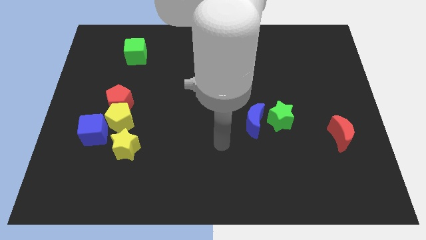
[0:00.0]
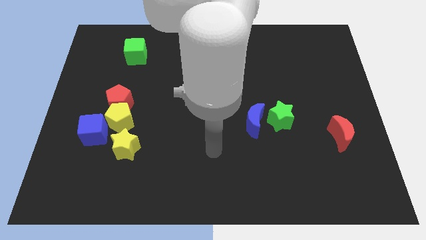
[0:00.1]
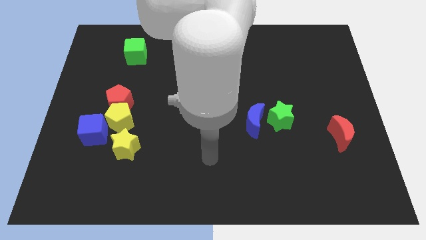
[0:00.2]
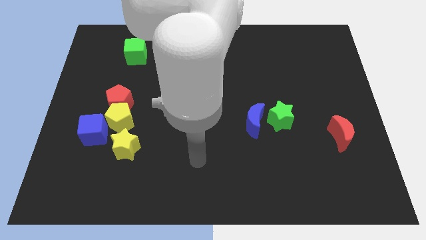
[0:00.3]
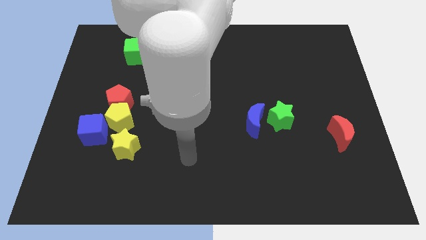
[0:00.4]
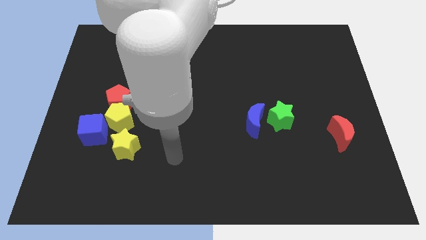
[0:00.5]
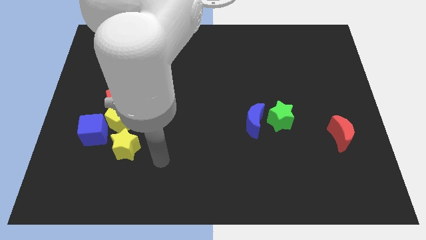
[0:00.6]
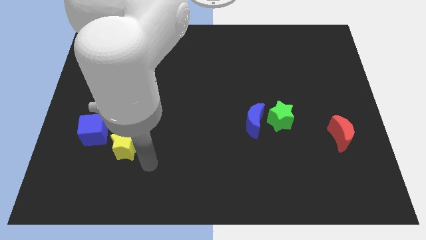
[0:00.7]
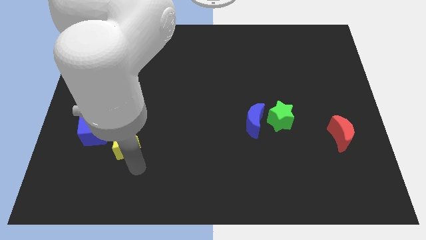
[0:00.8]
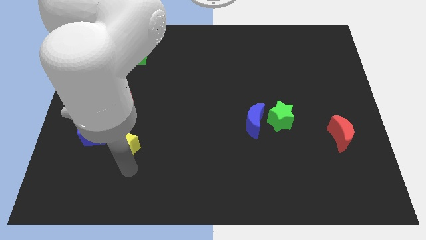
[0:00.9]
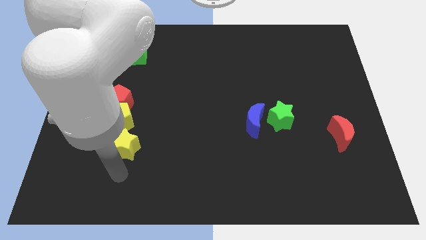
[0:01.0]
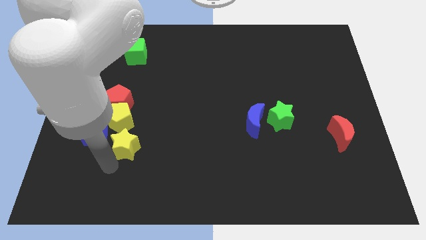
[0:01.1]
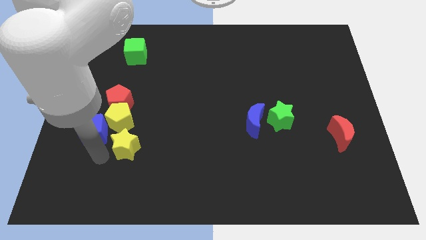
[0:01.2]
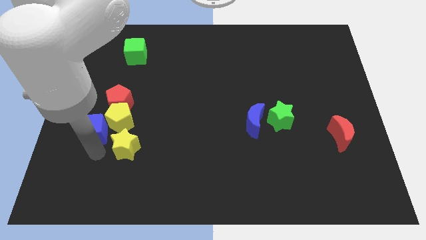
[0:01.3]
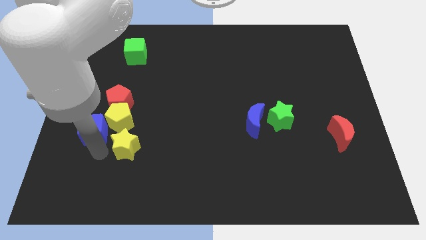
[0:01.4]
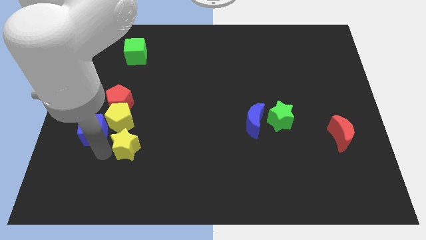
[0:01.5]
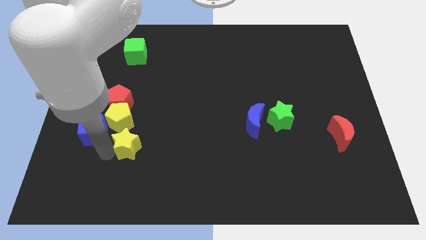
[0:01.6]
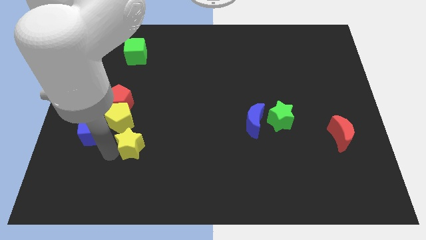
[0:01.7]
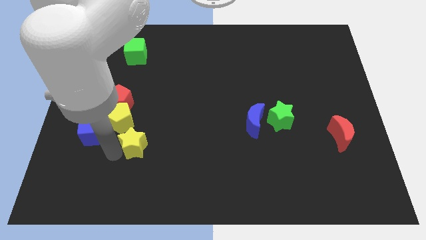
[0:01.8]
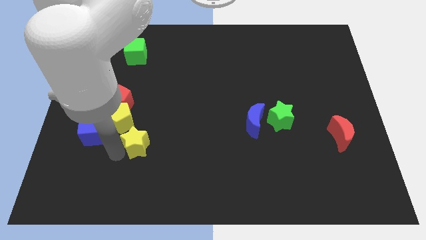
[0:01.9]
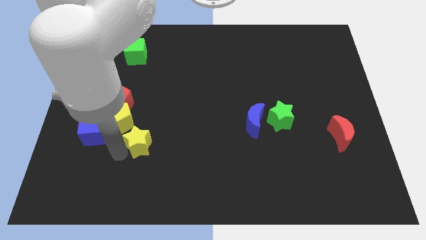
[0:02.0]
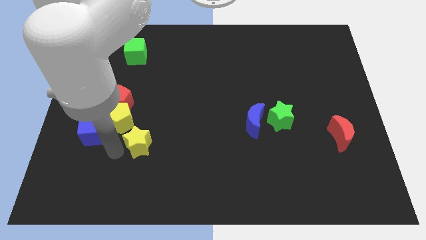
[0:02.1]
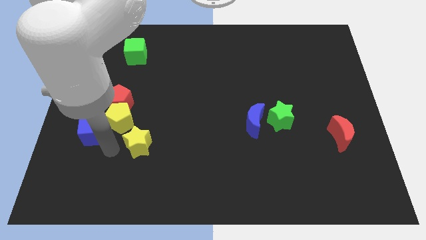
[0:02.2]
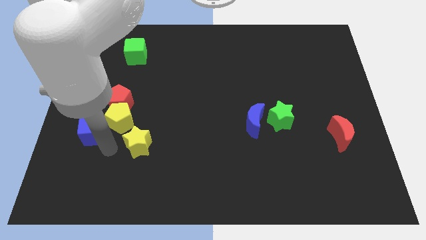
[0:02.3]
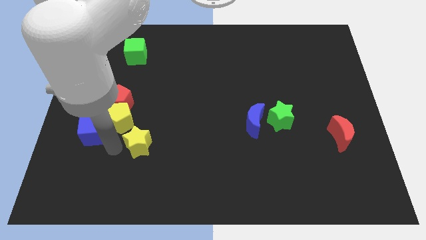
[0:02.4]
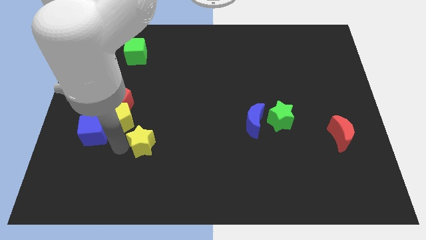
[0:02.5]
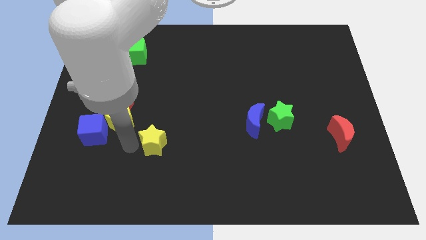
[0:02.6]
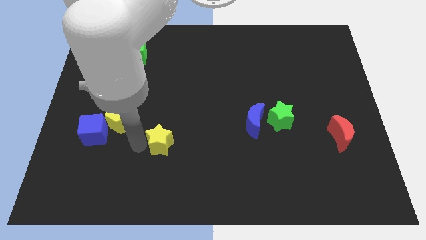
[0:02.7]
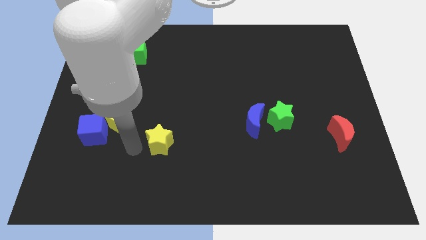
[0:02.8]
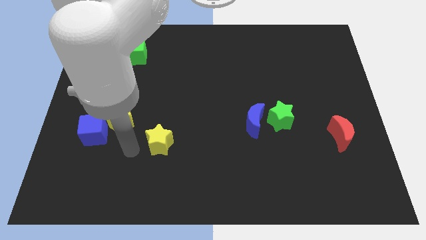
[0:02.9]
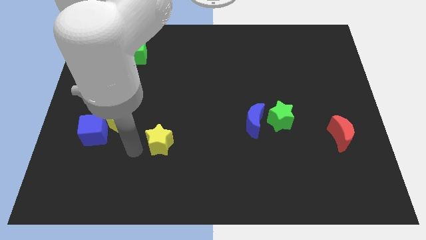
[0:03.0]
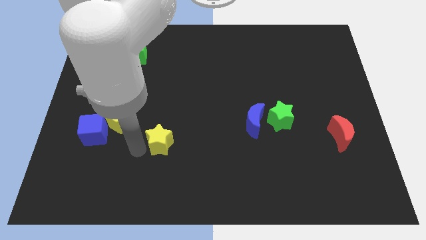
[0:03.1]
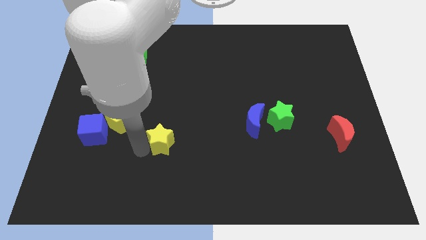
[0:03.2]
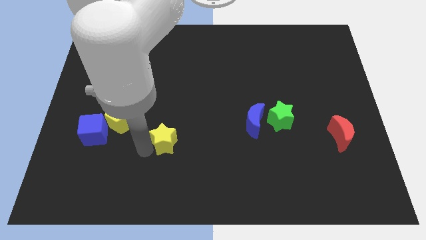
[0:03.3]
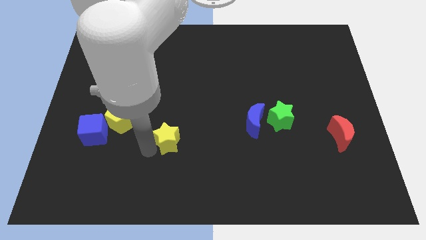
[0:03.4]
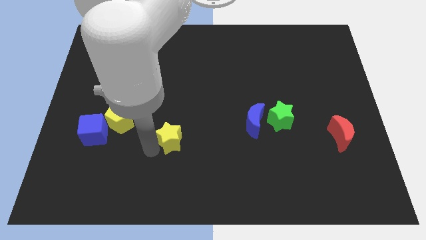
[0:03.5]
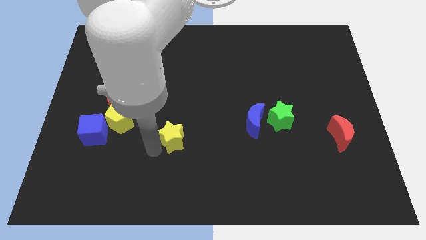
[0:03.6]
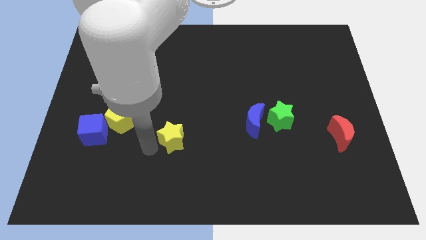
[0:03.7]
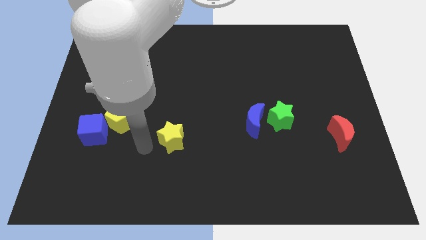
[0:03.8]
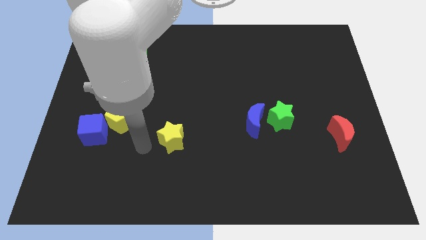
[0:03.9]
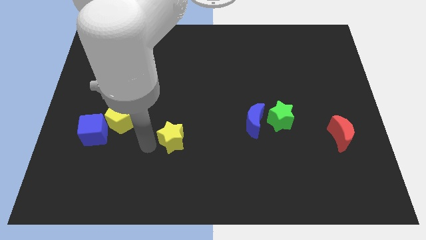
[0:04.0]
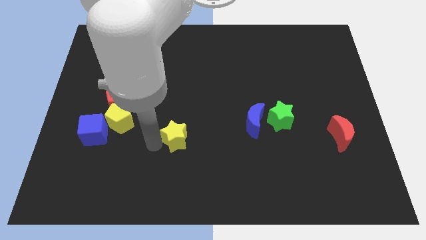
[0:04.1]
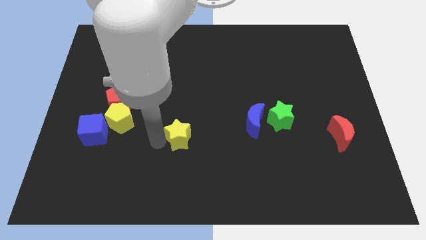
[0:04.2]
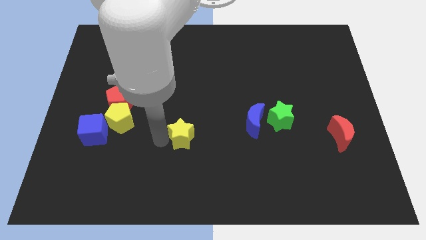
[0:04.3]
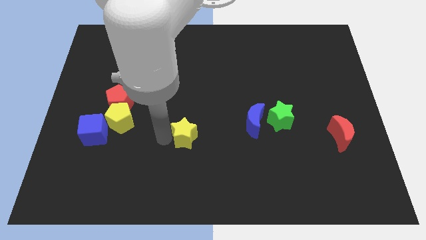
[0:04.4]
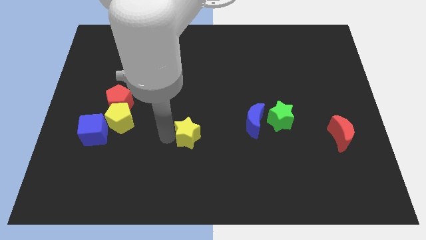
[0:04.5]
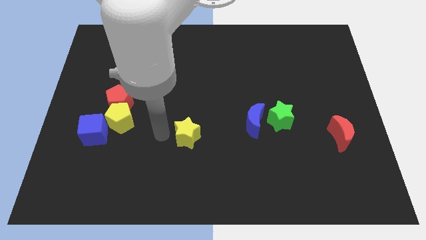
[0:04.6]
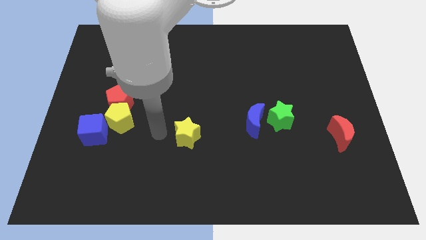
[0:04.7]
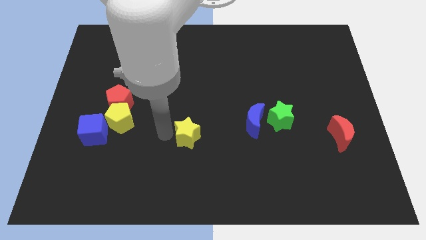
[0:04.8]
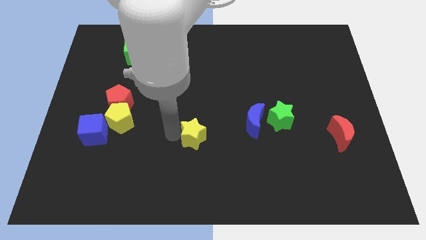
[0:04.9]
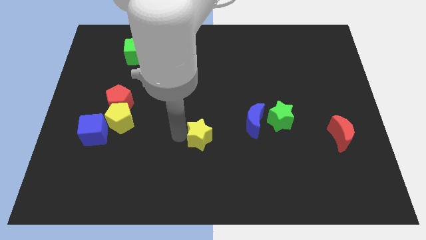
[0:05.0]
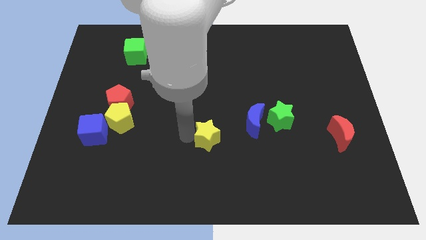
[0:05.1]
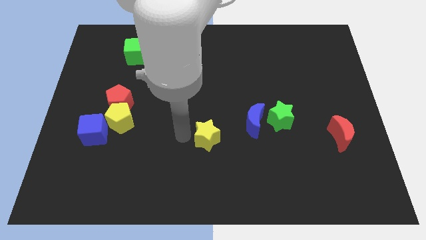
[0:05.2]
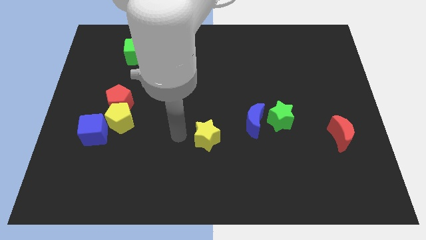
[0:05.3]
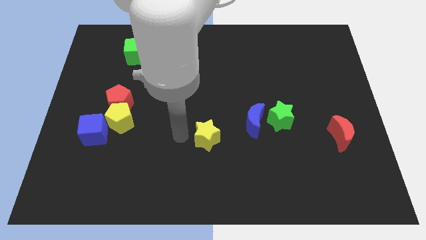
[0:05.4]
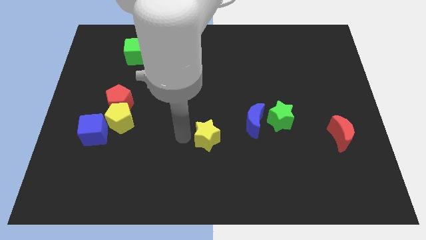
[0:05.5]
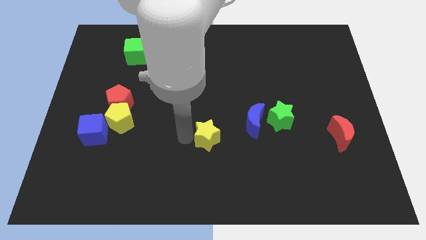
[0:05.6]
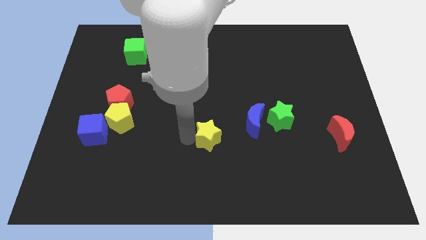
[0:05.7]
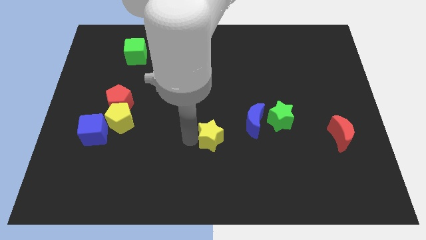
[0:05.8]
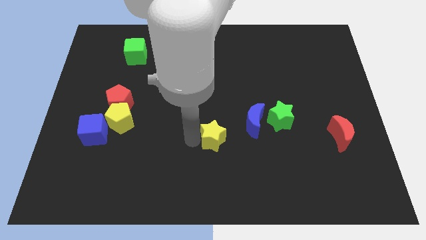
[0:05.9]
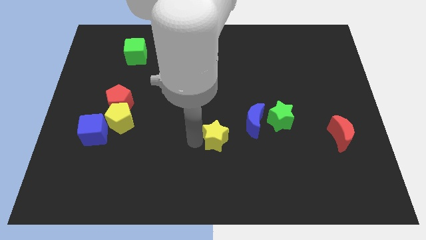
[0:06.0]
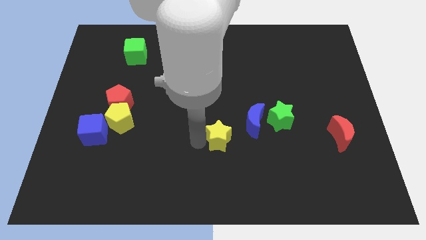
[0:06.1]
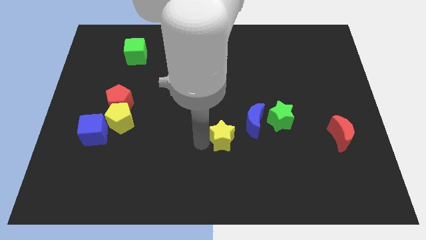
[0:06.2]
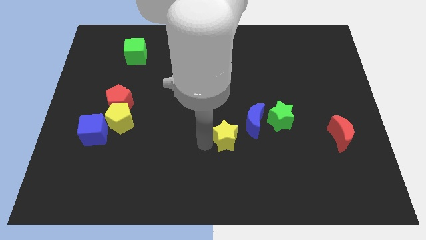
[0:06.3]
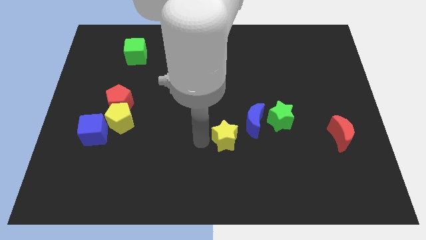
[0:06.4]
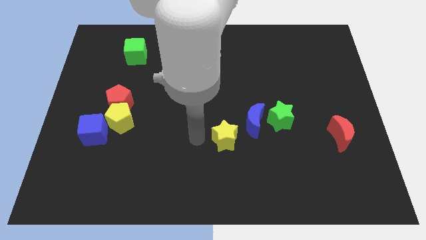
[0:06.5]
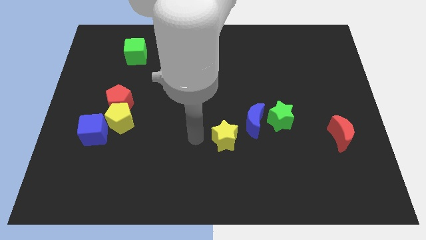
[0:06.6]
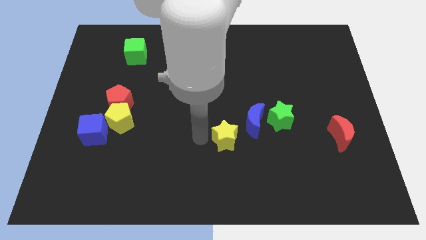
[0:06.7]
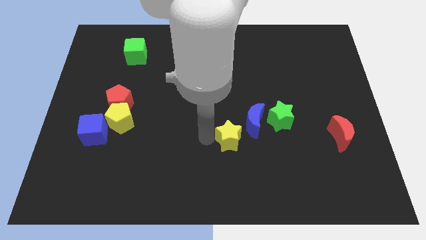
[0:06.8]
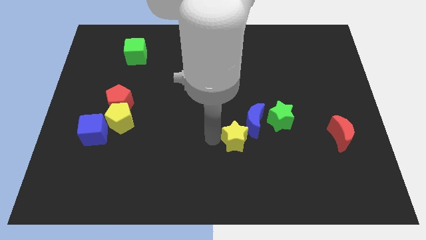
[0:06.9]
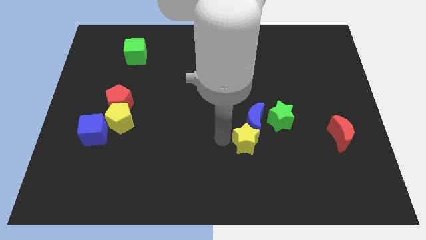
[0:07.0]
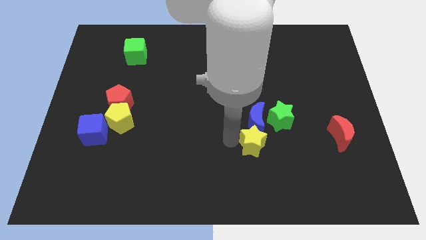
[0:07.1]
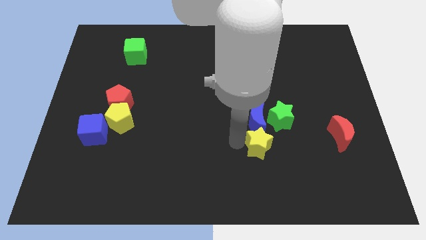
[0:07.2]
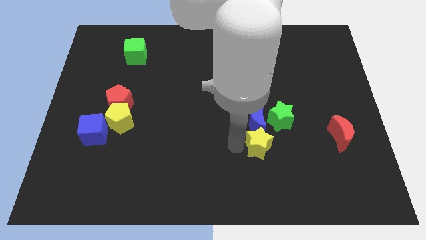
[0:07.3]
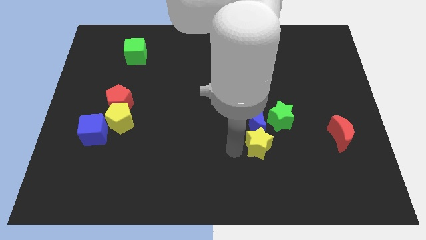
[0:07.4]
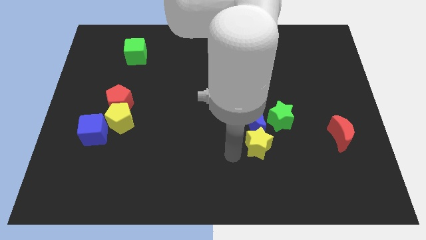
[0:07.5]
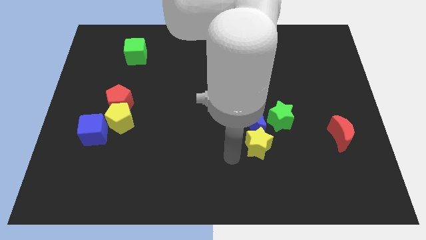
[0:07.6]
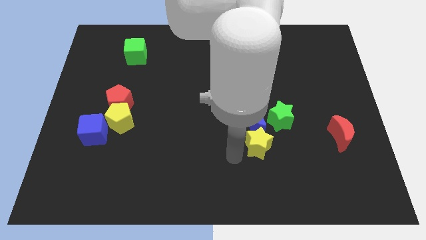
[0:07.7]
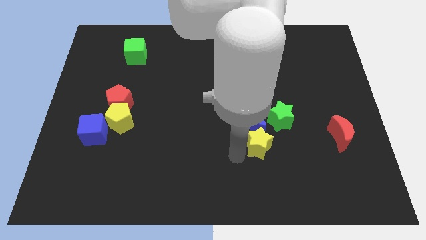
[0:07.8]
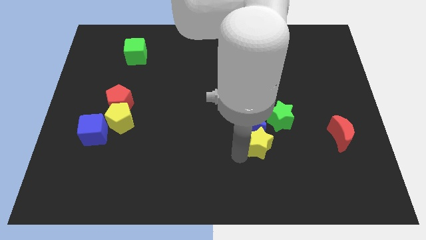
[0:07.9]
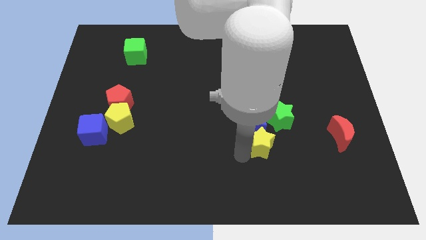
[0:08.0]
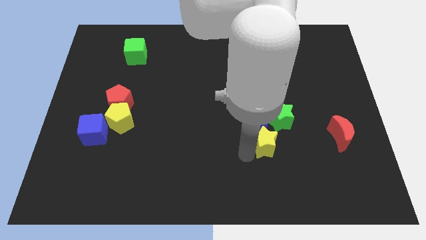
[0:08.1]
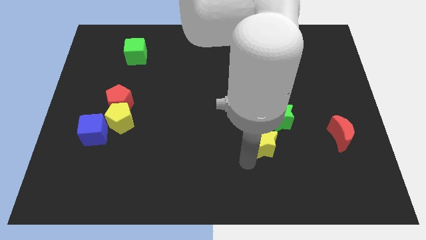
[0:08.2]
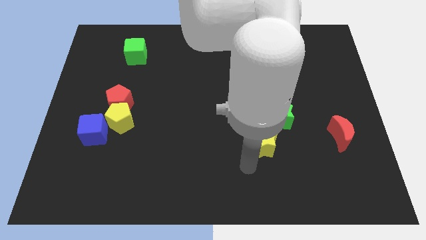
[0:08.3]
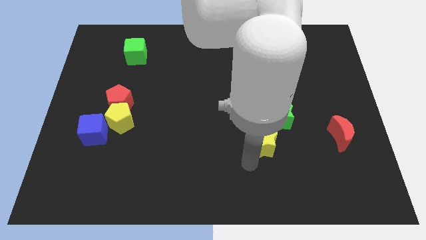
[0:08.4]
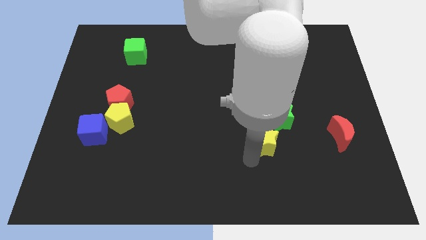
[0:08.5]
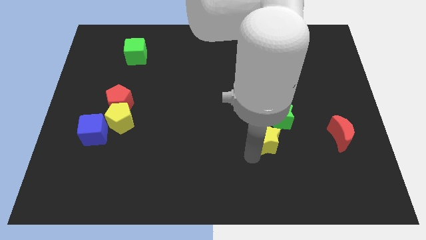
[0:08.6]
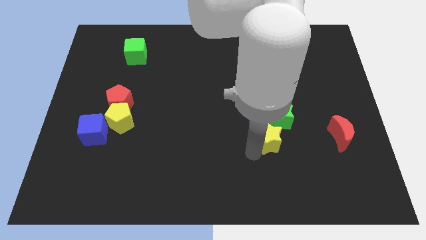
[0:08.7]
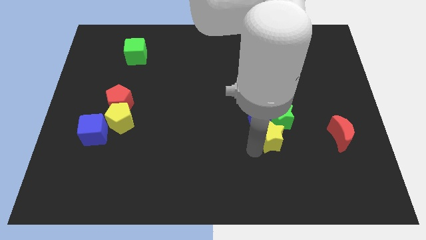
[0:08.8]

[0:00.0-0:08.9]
push the yellow star towards the green star
